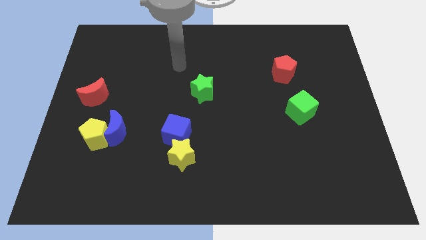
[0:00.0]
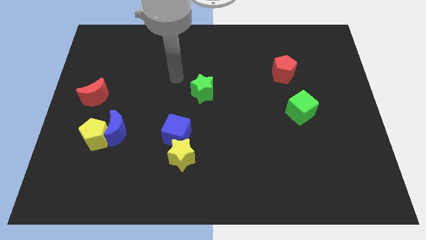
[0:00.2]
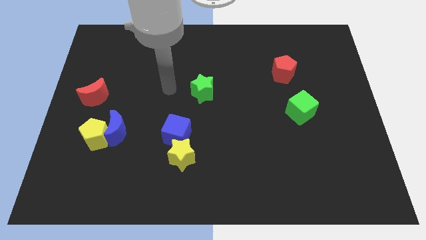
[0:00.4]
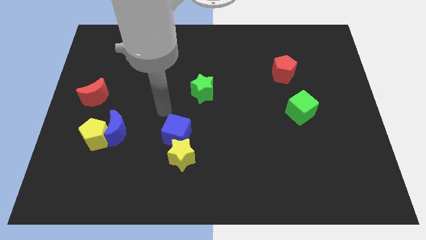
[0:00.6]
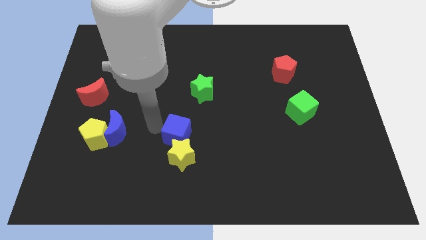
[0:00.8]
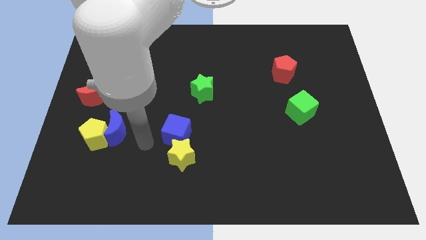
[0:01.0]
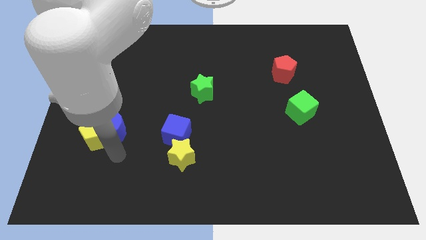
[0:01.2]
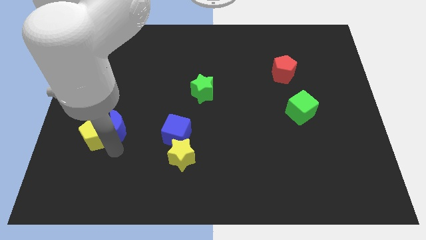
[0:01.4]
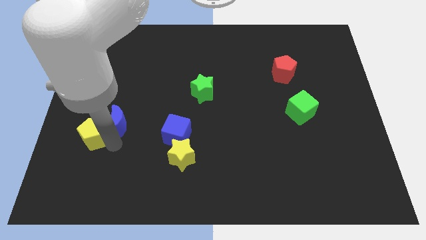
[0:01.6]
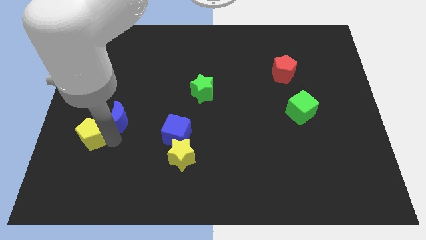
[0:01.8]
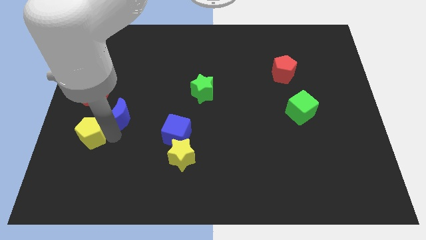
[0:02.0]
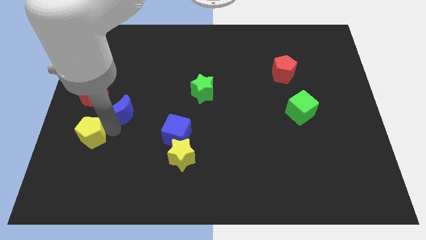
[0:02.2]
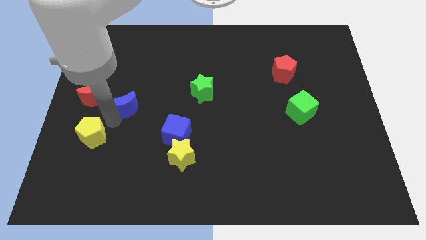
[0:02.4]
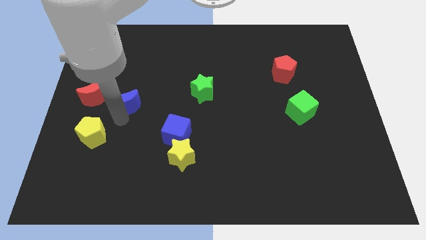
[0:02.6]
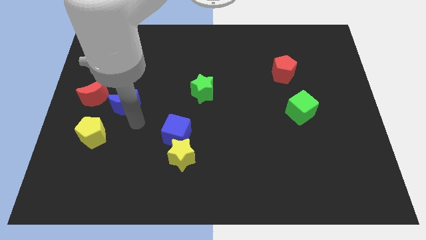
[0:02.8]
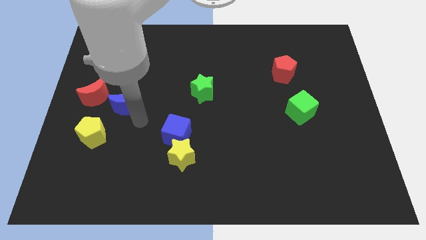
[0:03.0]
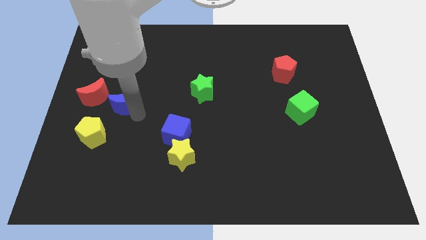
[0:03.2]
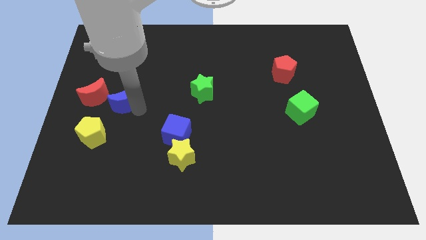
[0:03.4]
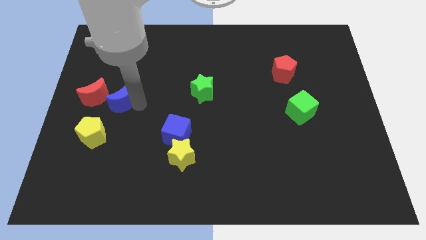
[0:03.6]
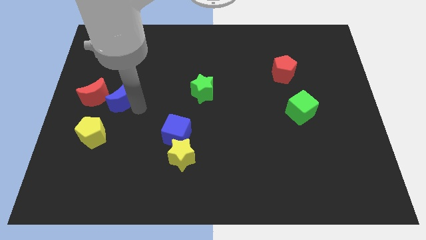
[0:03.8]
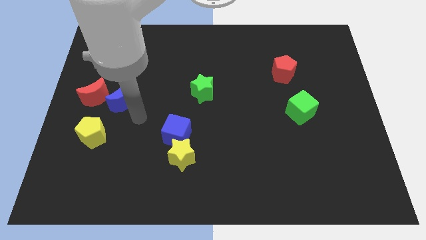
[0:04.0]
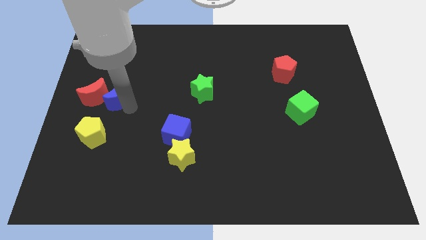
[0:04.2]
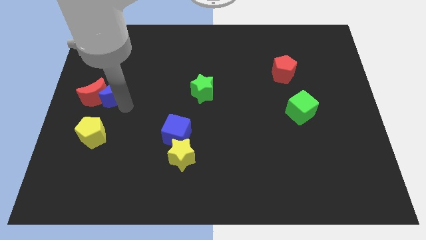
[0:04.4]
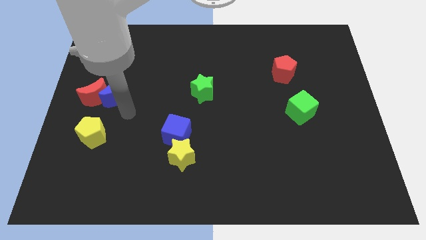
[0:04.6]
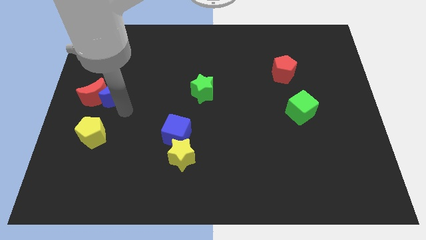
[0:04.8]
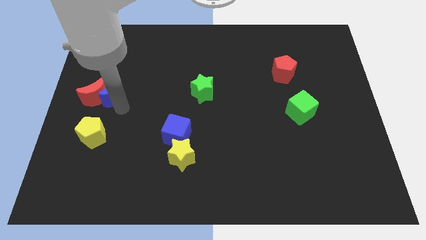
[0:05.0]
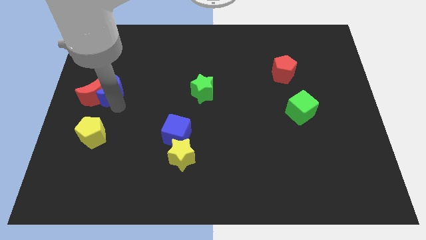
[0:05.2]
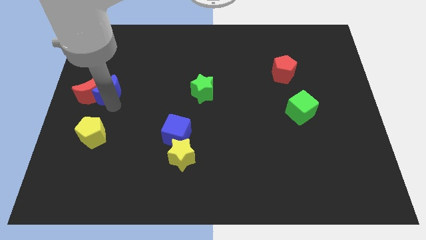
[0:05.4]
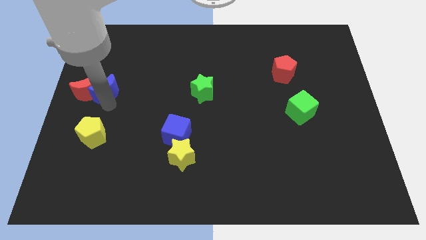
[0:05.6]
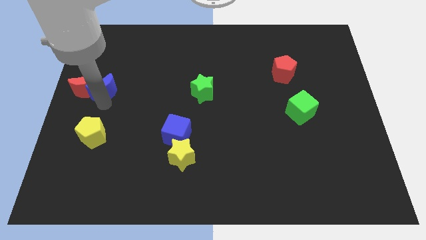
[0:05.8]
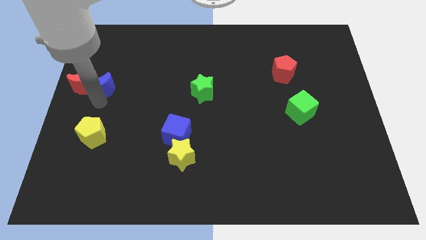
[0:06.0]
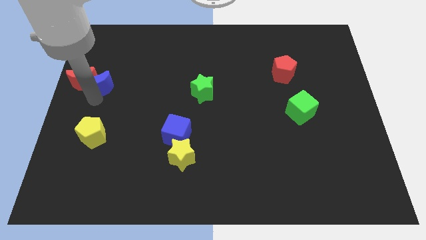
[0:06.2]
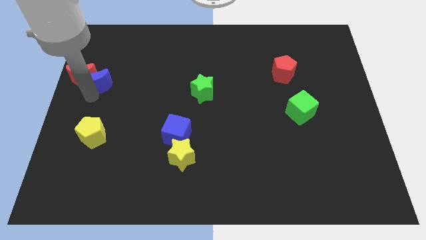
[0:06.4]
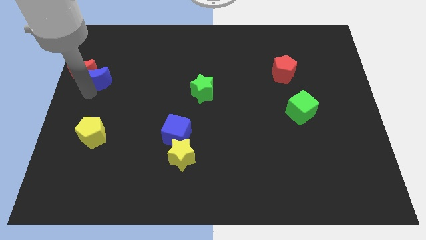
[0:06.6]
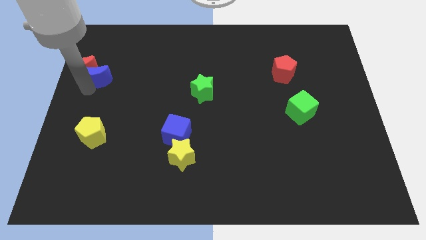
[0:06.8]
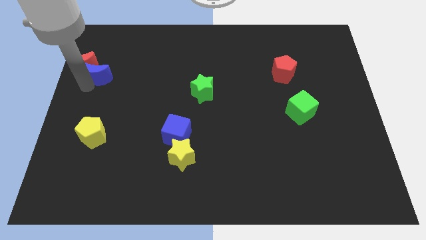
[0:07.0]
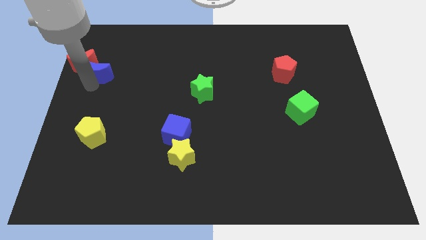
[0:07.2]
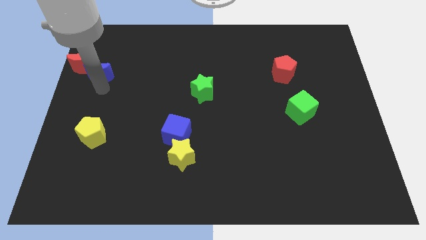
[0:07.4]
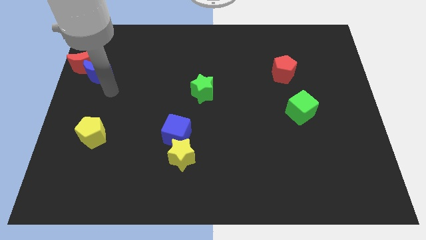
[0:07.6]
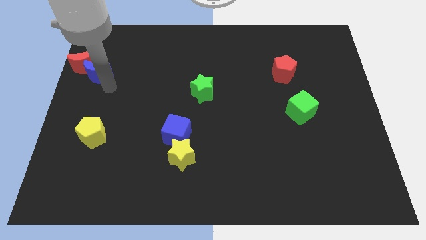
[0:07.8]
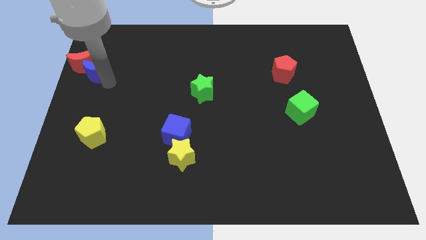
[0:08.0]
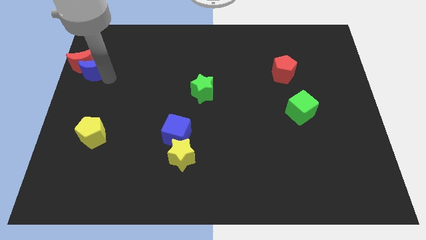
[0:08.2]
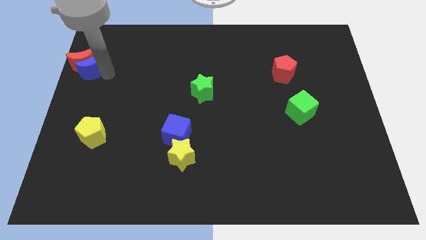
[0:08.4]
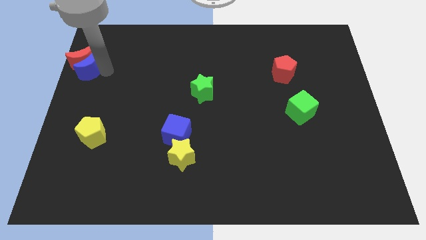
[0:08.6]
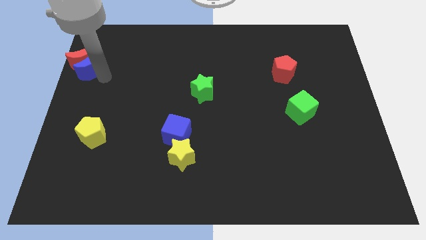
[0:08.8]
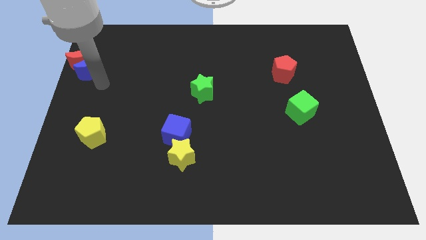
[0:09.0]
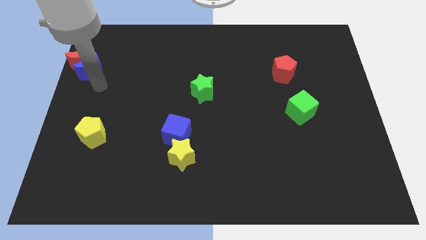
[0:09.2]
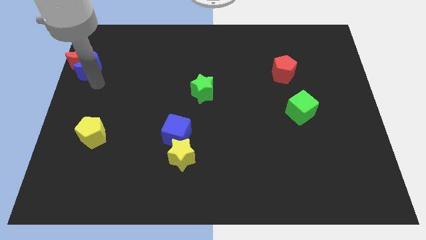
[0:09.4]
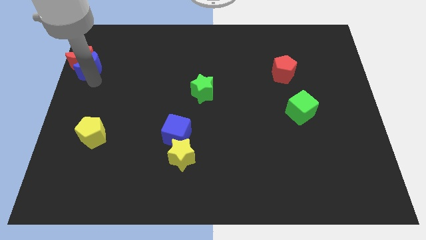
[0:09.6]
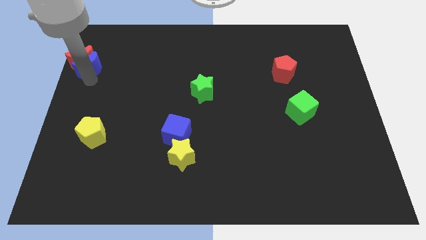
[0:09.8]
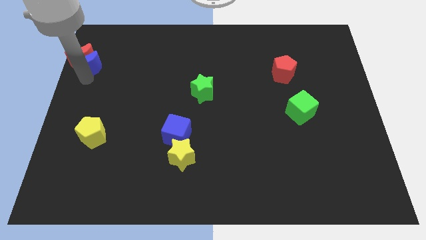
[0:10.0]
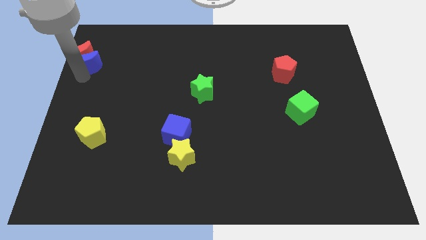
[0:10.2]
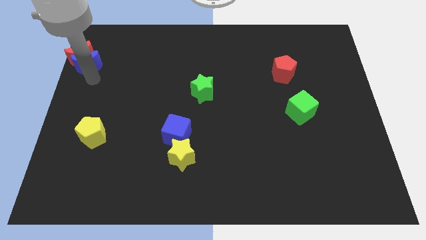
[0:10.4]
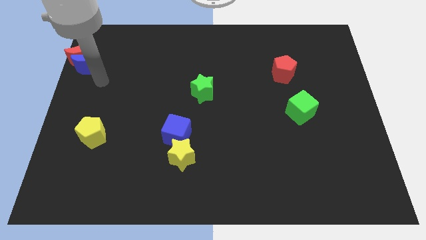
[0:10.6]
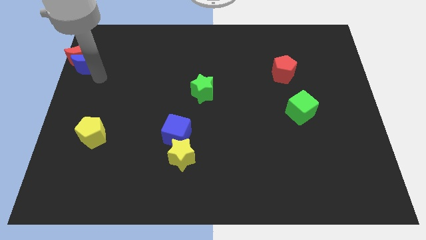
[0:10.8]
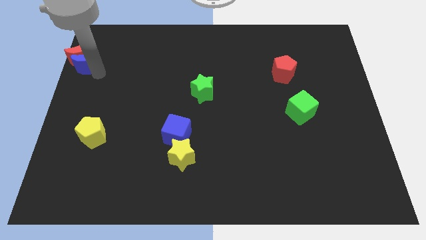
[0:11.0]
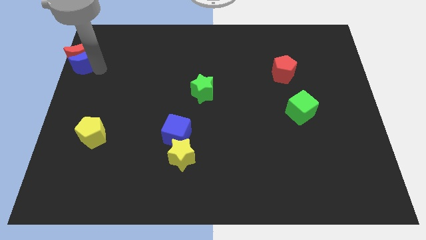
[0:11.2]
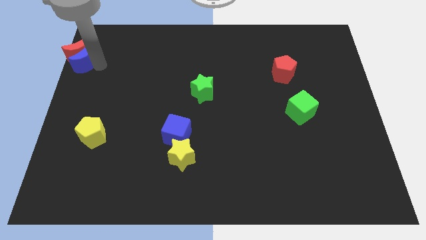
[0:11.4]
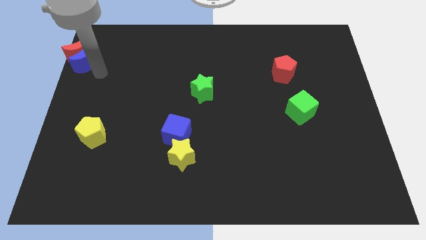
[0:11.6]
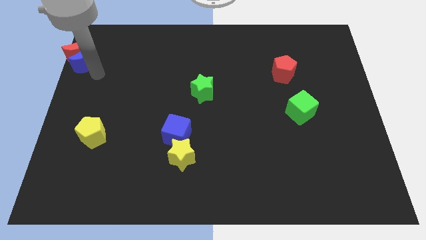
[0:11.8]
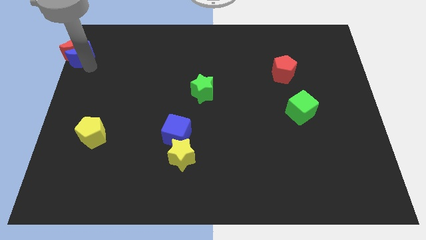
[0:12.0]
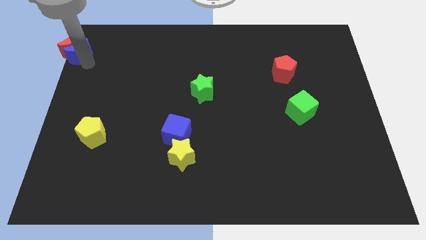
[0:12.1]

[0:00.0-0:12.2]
move the blue moon to the top left corner

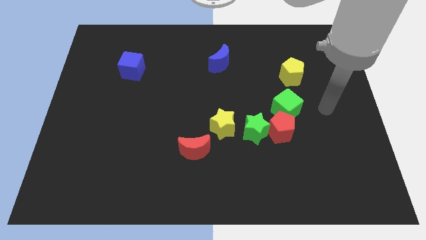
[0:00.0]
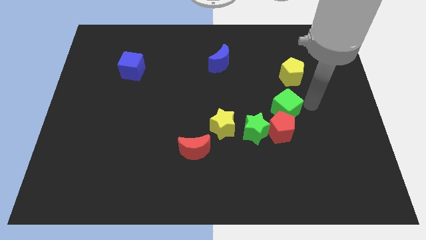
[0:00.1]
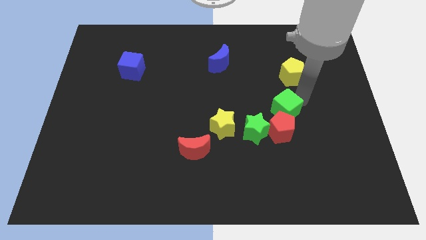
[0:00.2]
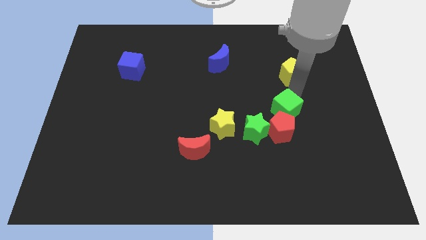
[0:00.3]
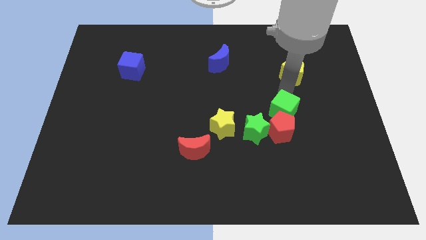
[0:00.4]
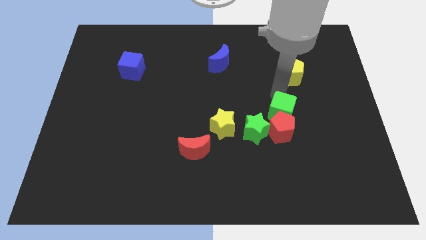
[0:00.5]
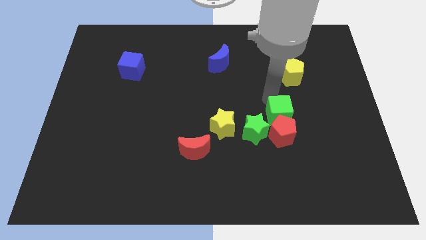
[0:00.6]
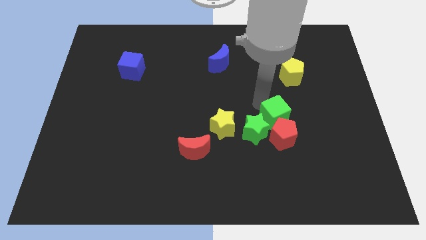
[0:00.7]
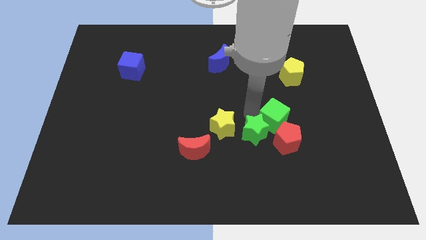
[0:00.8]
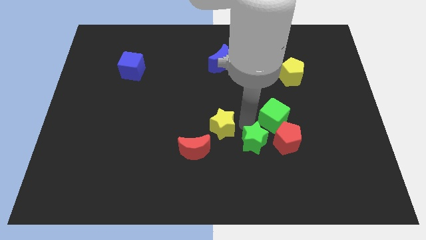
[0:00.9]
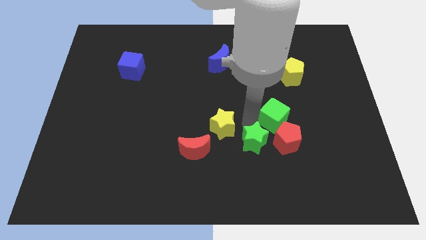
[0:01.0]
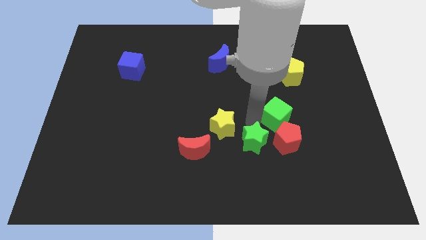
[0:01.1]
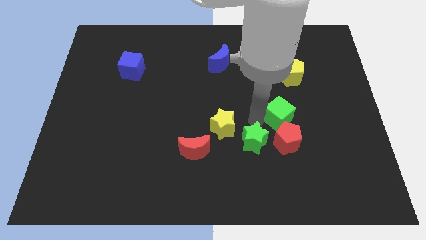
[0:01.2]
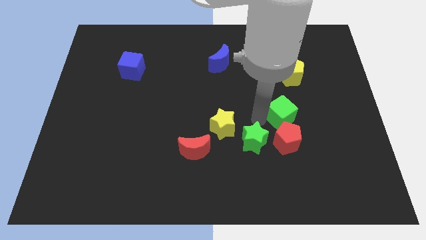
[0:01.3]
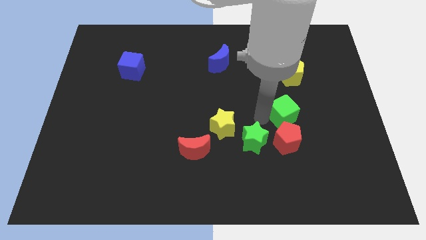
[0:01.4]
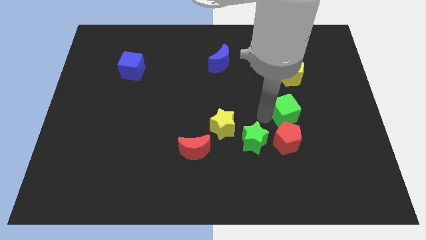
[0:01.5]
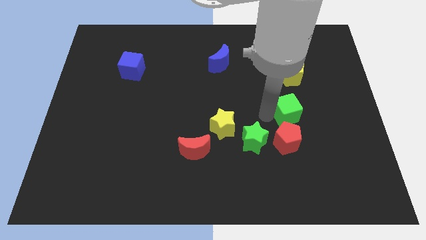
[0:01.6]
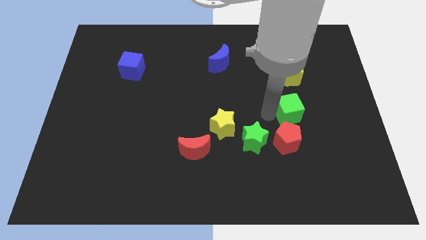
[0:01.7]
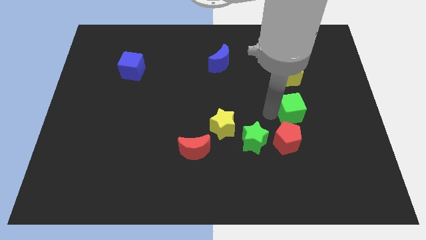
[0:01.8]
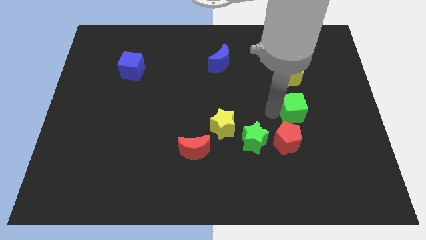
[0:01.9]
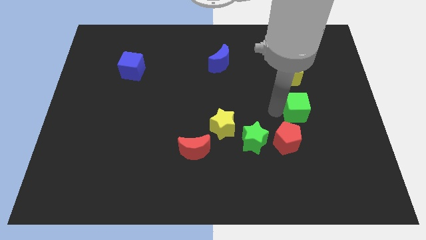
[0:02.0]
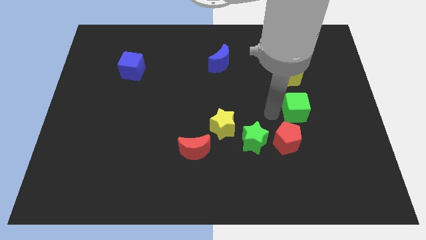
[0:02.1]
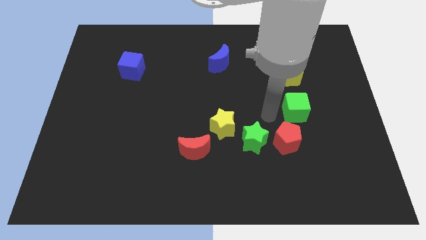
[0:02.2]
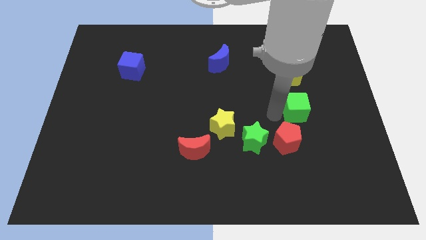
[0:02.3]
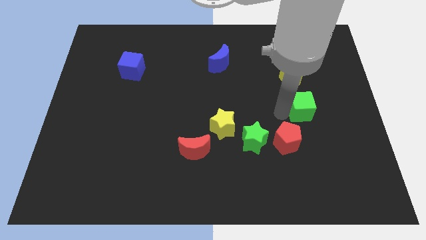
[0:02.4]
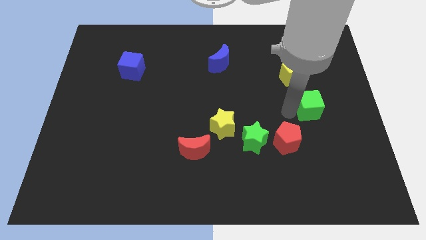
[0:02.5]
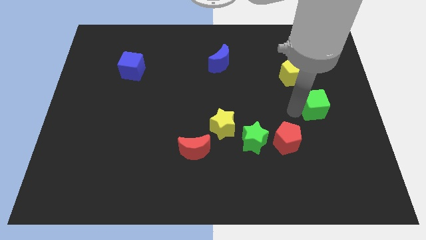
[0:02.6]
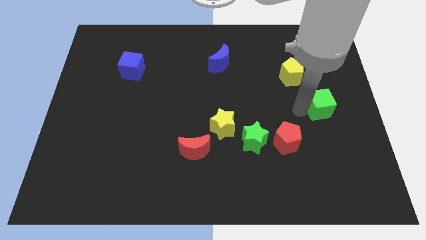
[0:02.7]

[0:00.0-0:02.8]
push the green cube to the center right
